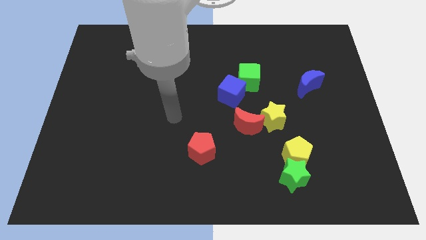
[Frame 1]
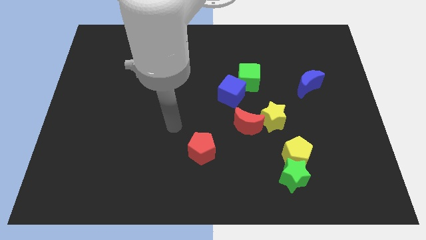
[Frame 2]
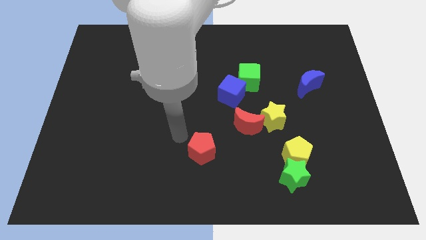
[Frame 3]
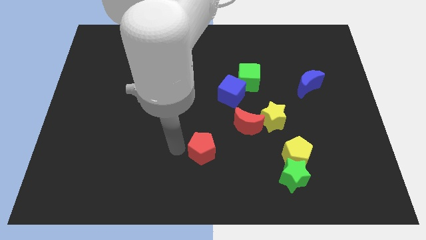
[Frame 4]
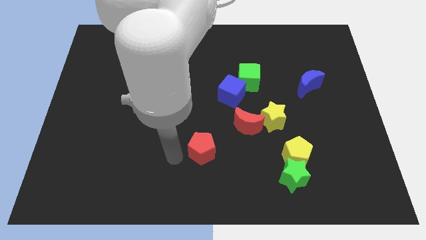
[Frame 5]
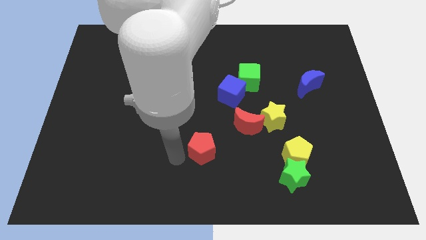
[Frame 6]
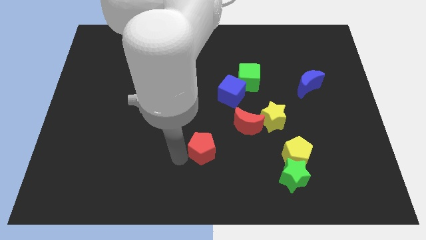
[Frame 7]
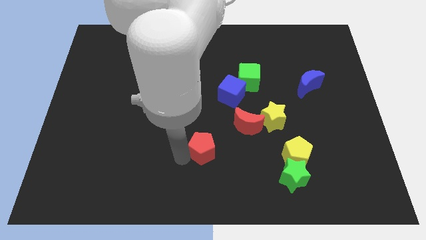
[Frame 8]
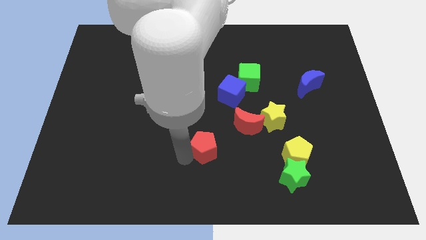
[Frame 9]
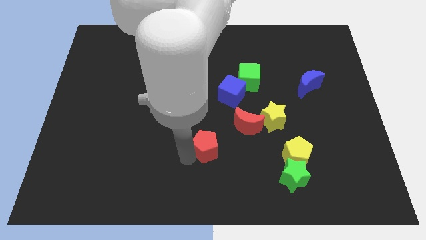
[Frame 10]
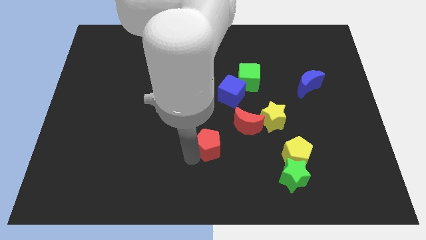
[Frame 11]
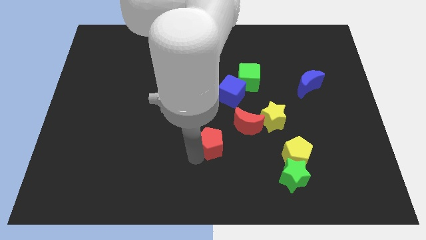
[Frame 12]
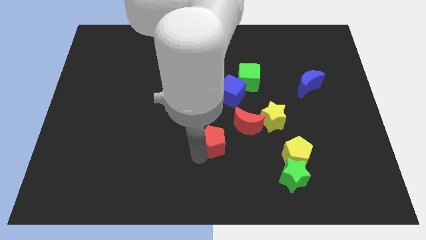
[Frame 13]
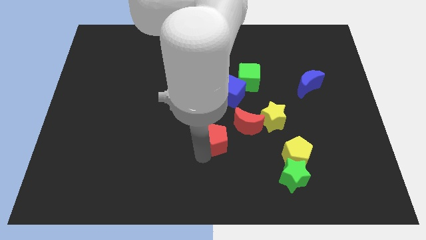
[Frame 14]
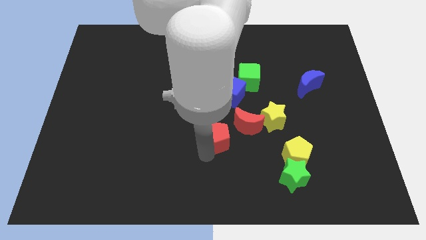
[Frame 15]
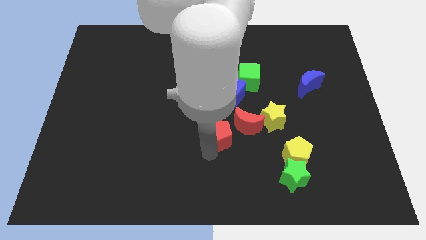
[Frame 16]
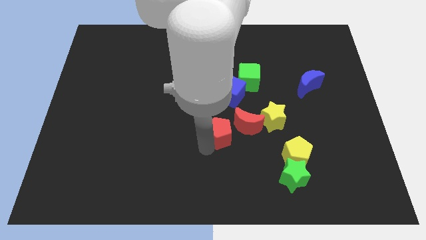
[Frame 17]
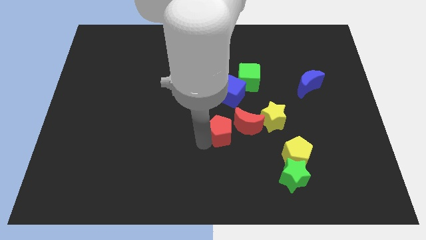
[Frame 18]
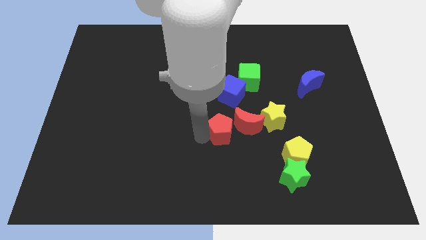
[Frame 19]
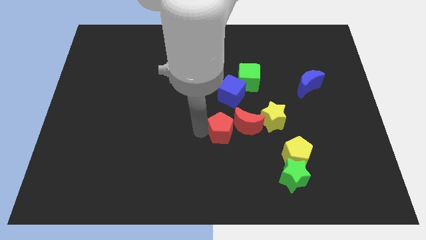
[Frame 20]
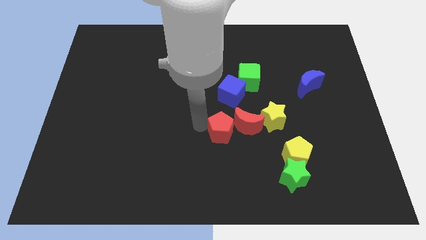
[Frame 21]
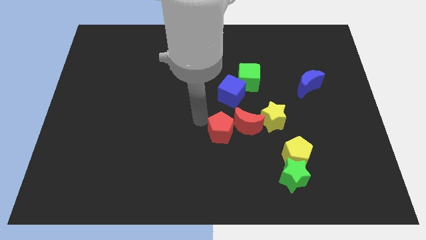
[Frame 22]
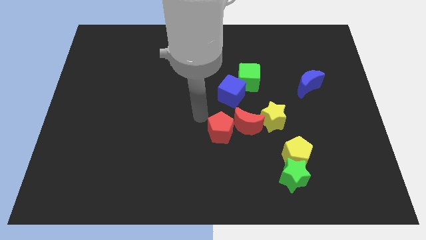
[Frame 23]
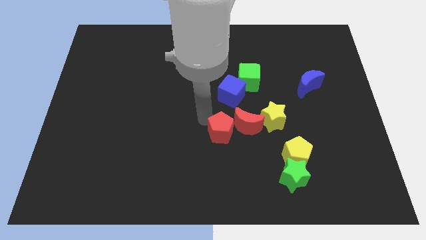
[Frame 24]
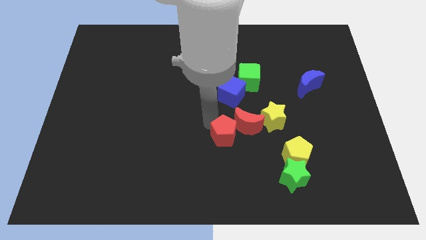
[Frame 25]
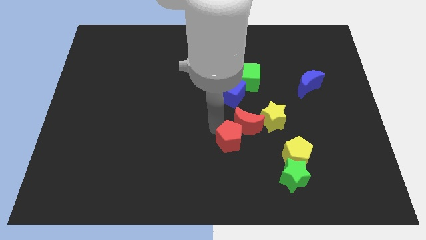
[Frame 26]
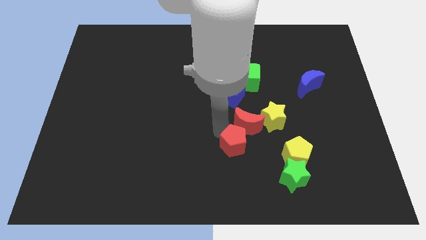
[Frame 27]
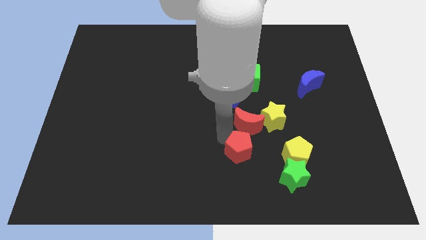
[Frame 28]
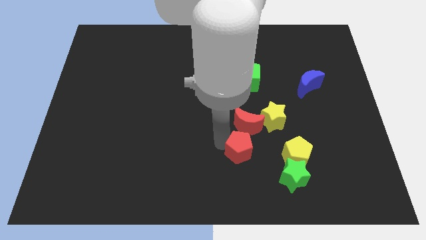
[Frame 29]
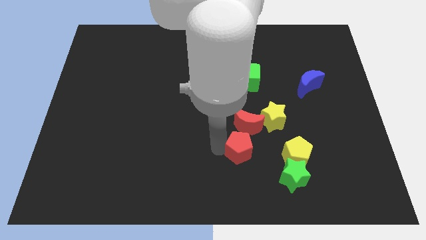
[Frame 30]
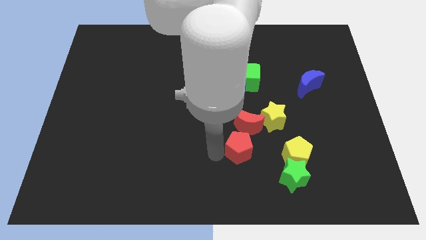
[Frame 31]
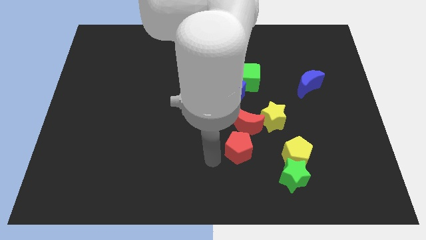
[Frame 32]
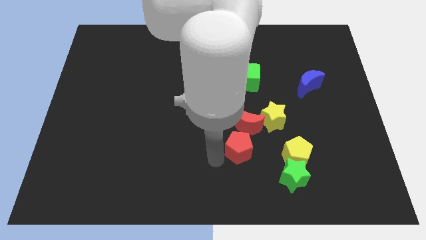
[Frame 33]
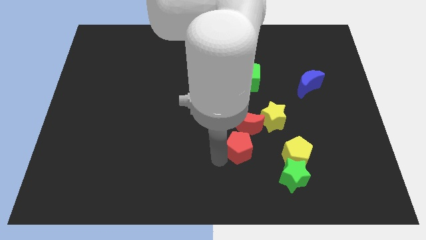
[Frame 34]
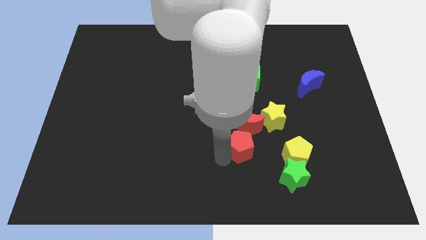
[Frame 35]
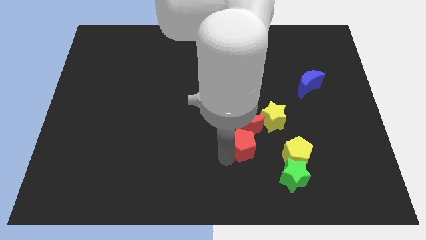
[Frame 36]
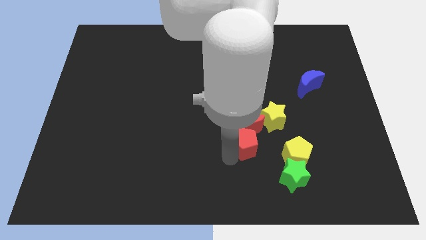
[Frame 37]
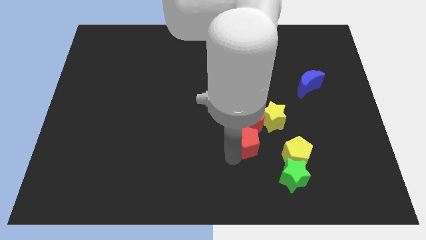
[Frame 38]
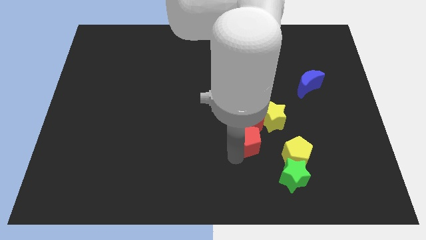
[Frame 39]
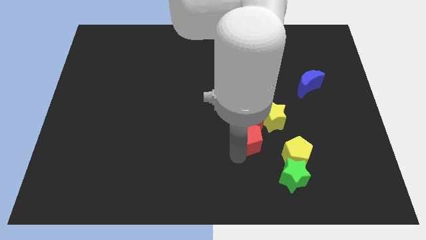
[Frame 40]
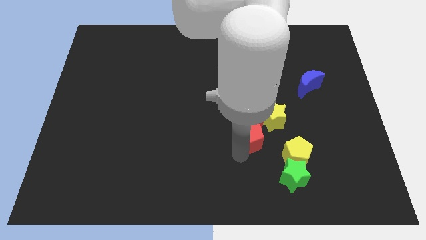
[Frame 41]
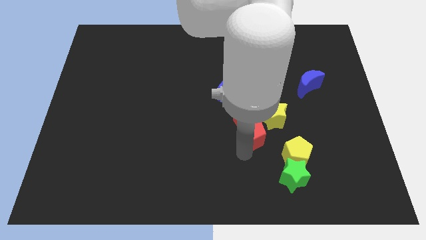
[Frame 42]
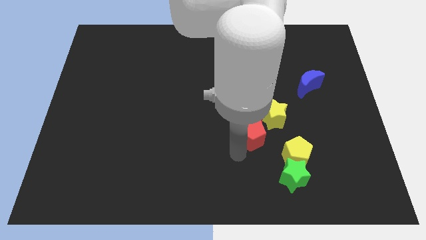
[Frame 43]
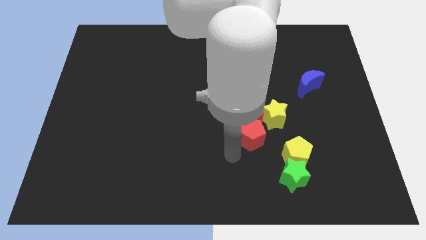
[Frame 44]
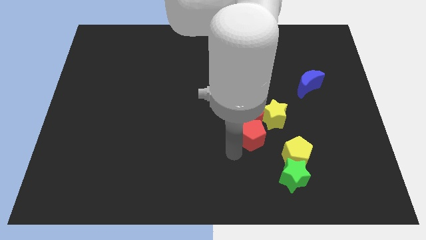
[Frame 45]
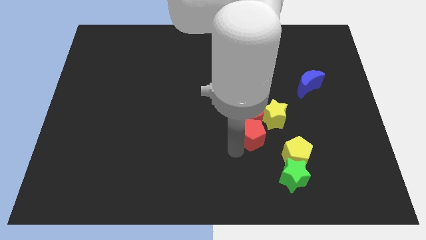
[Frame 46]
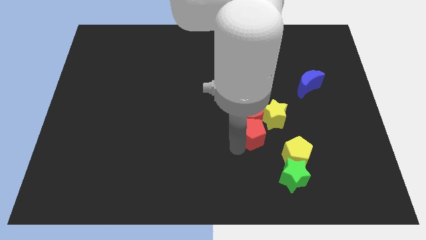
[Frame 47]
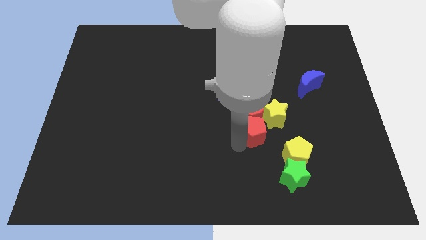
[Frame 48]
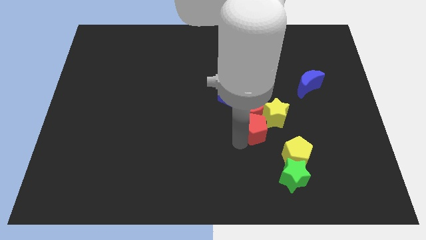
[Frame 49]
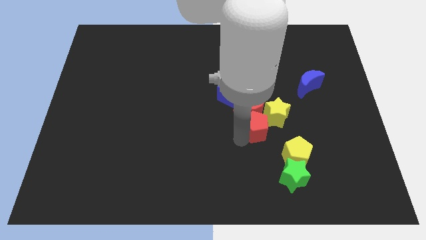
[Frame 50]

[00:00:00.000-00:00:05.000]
move the red pentagon to the yellow star

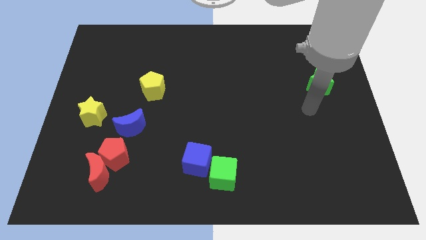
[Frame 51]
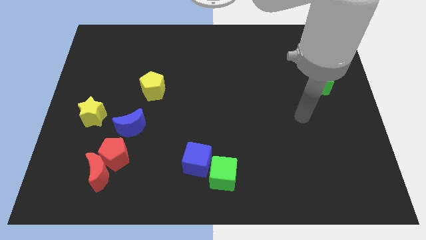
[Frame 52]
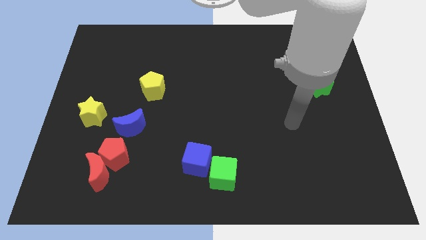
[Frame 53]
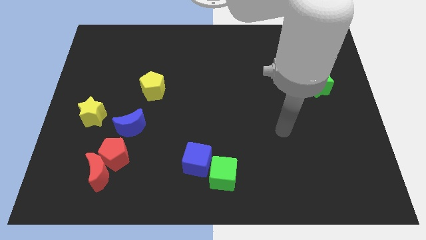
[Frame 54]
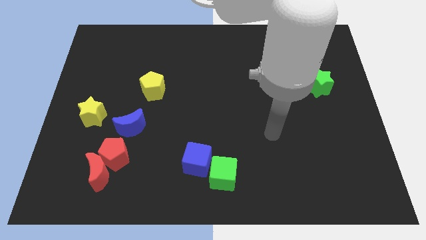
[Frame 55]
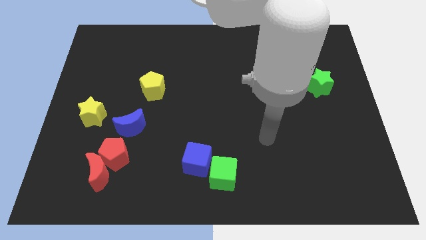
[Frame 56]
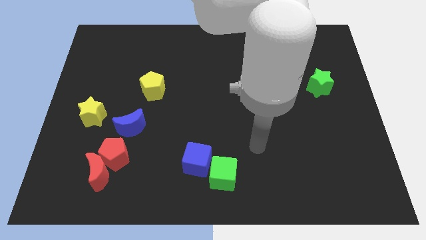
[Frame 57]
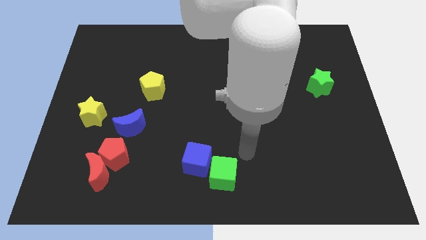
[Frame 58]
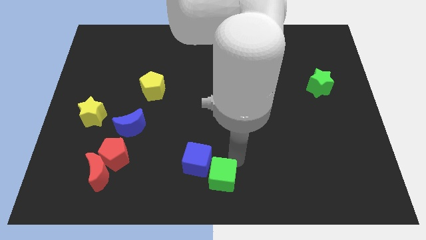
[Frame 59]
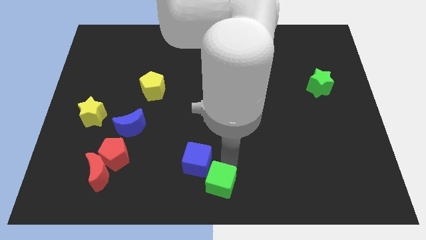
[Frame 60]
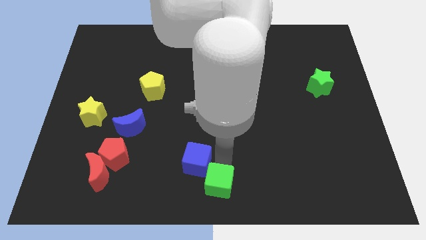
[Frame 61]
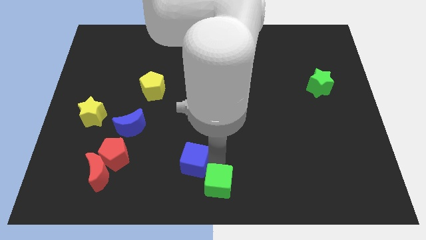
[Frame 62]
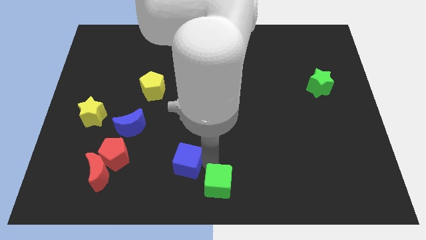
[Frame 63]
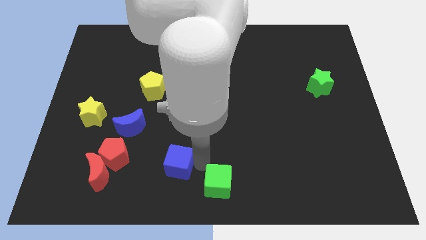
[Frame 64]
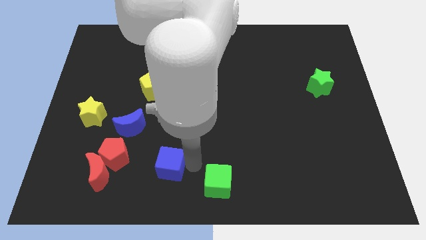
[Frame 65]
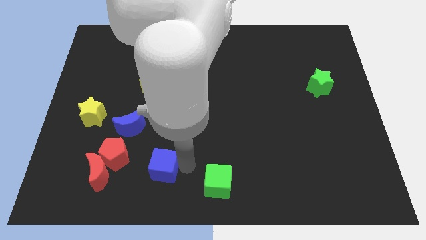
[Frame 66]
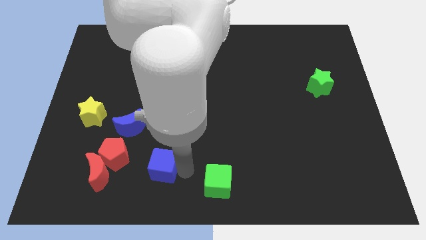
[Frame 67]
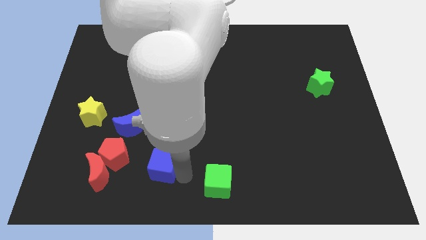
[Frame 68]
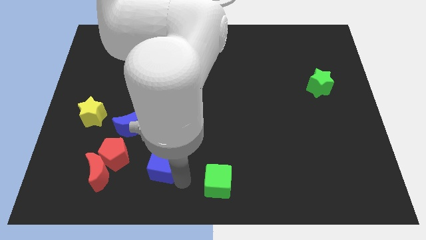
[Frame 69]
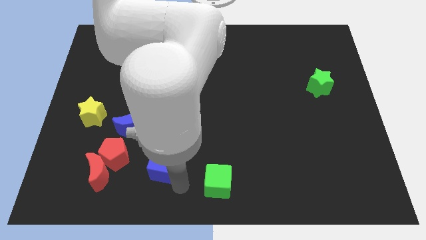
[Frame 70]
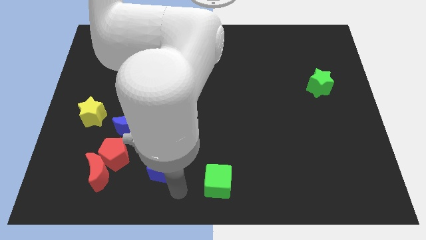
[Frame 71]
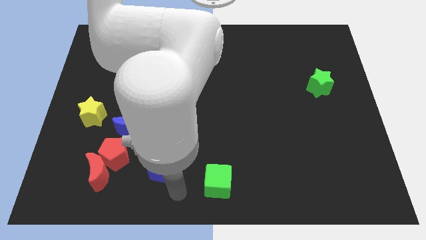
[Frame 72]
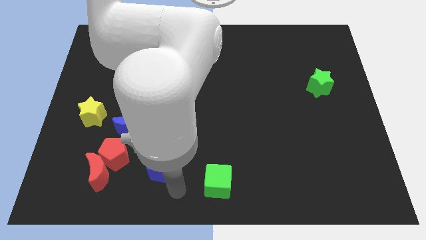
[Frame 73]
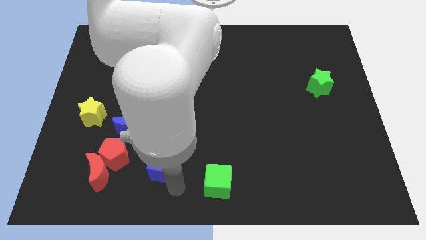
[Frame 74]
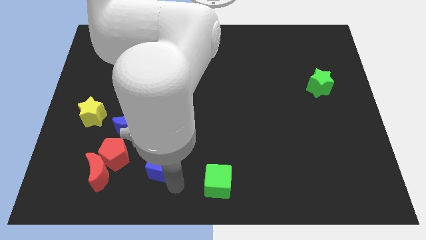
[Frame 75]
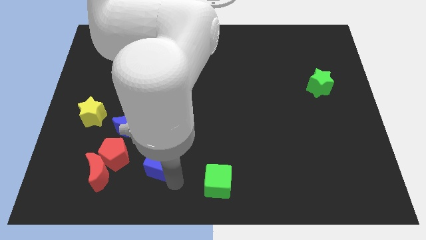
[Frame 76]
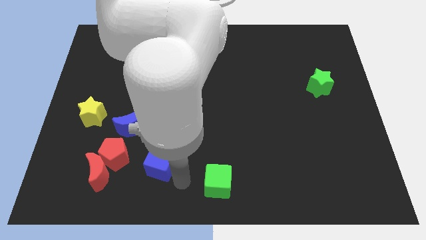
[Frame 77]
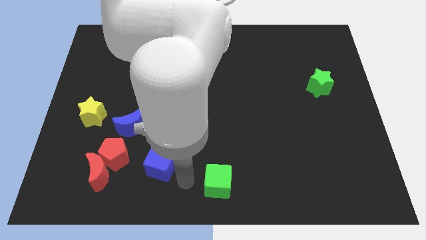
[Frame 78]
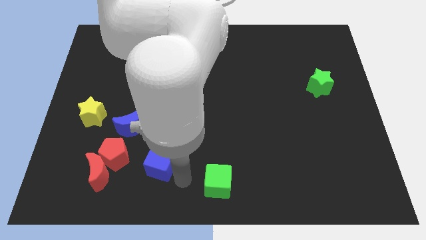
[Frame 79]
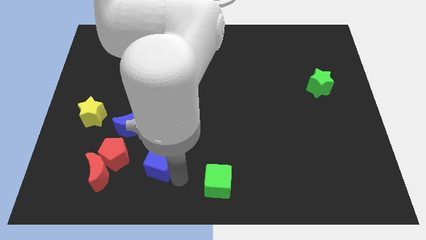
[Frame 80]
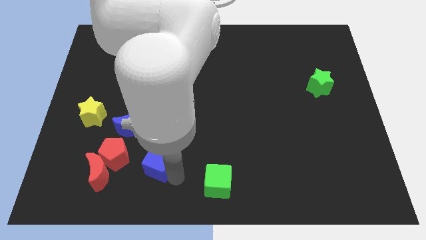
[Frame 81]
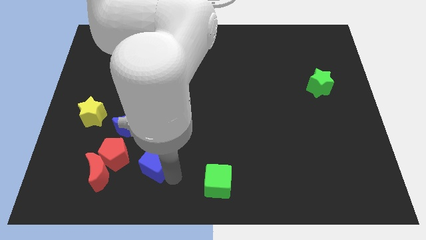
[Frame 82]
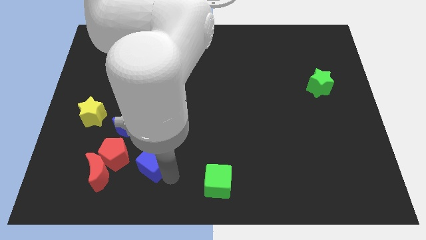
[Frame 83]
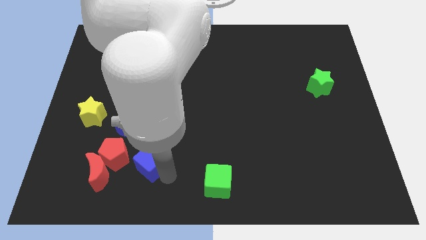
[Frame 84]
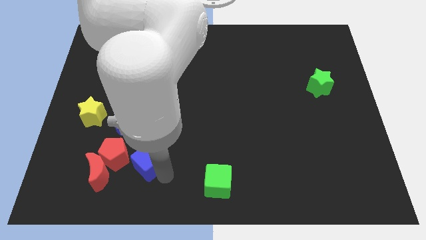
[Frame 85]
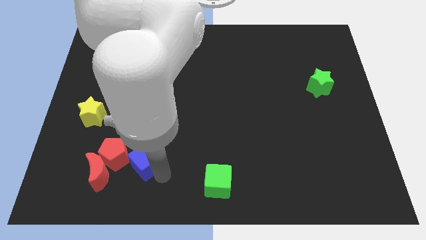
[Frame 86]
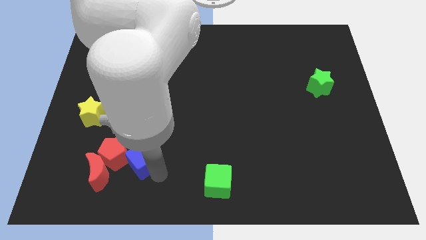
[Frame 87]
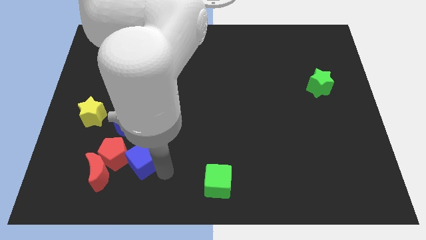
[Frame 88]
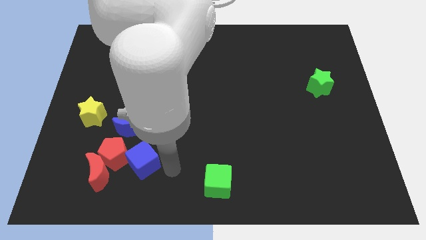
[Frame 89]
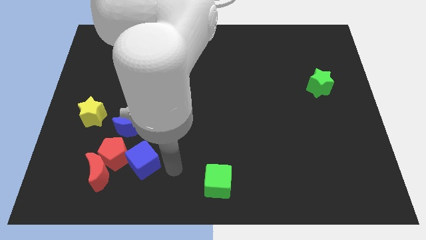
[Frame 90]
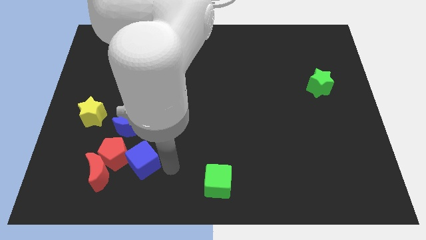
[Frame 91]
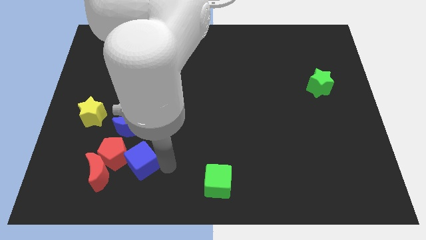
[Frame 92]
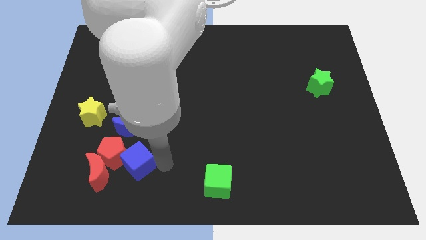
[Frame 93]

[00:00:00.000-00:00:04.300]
put the blue cube next to the red pentagon
